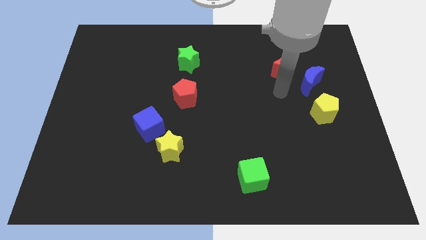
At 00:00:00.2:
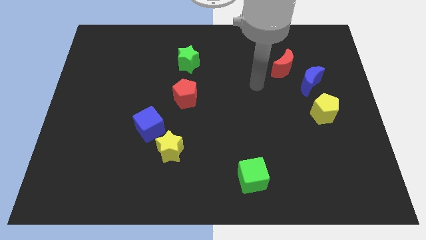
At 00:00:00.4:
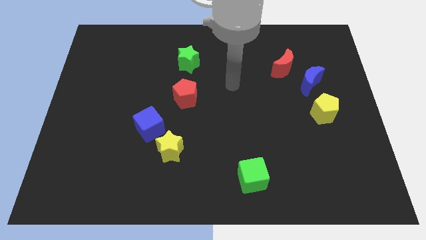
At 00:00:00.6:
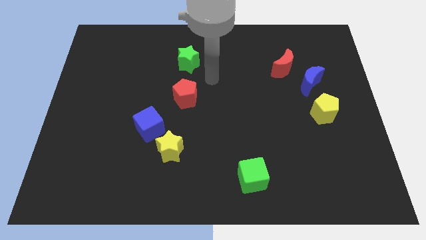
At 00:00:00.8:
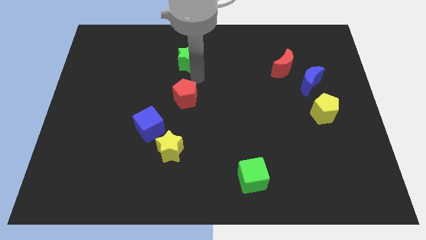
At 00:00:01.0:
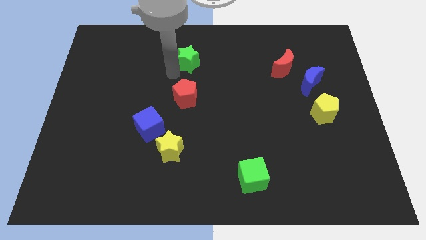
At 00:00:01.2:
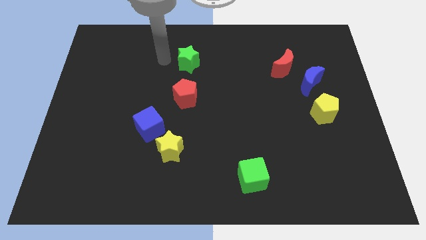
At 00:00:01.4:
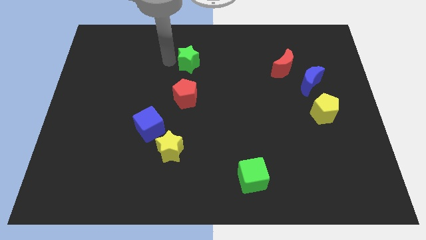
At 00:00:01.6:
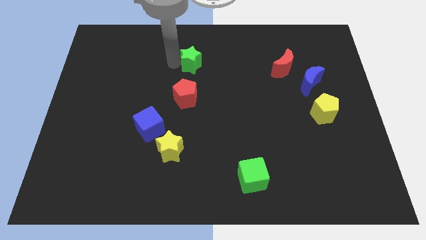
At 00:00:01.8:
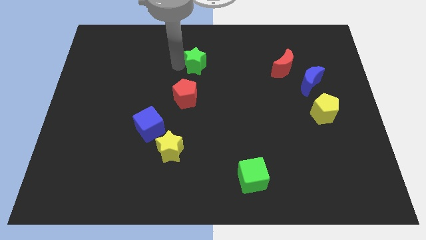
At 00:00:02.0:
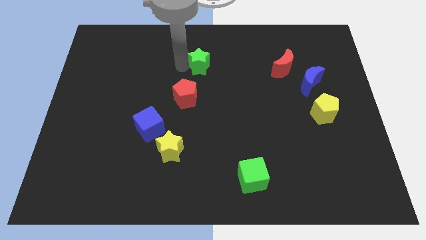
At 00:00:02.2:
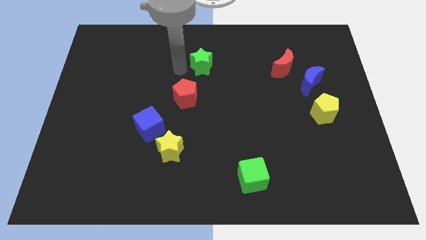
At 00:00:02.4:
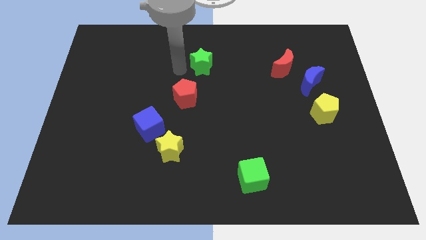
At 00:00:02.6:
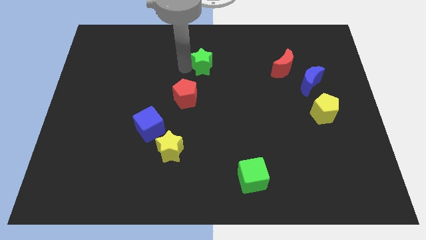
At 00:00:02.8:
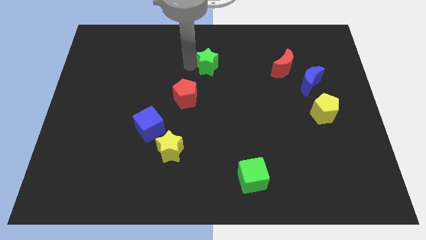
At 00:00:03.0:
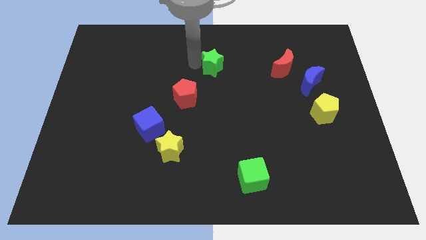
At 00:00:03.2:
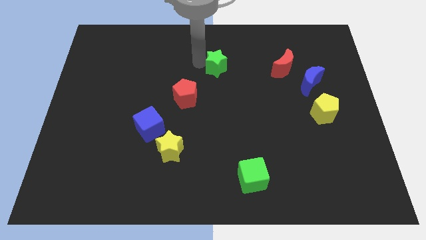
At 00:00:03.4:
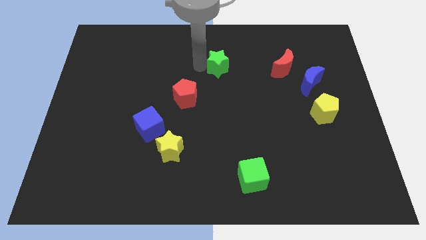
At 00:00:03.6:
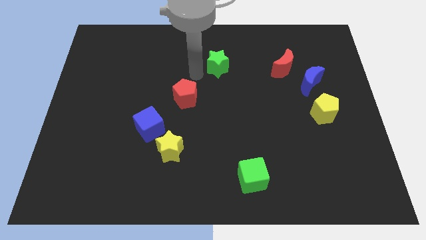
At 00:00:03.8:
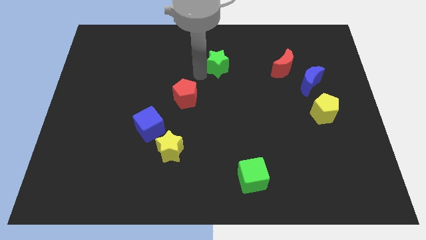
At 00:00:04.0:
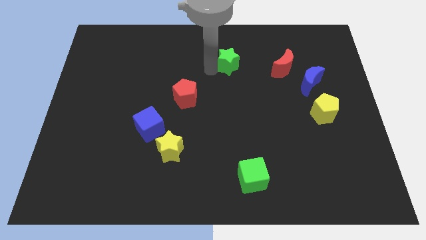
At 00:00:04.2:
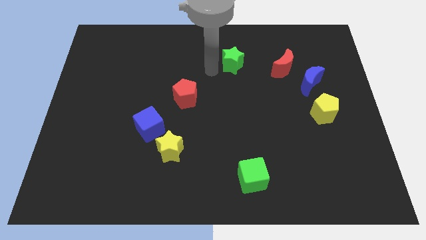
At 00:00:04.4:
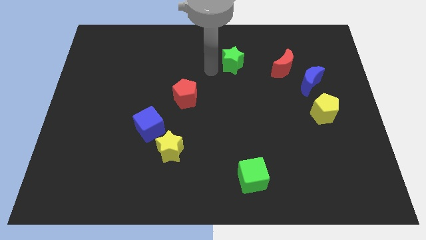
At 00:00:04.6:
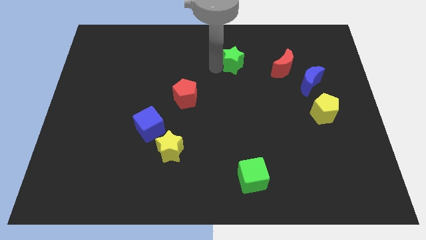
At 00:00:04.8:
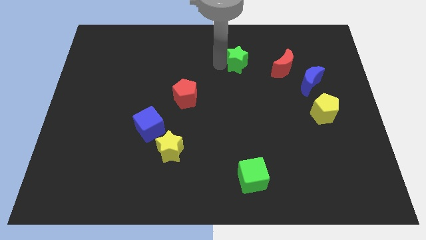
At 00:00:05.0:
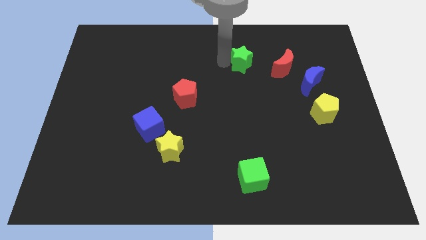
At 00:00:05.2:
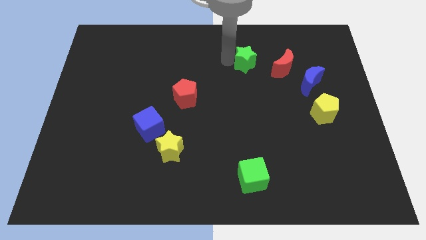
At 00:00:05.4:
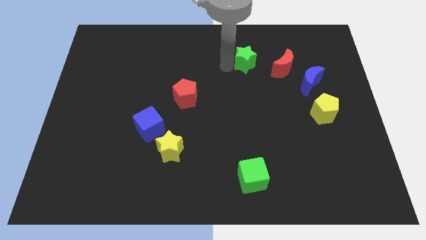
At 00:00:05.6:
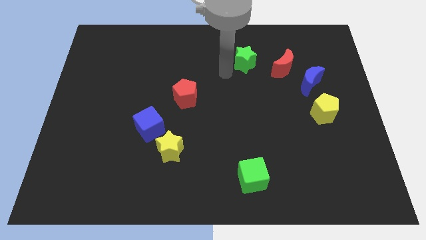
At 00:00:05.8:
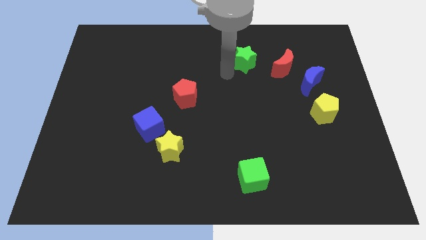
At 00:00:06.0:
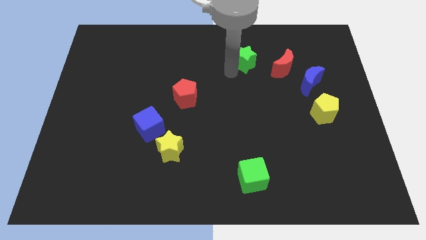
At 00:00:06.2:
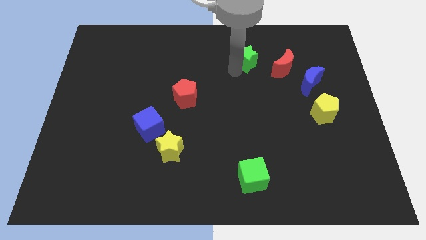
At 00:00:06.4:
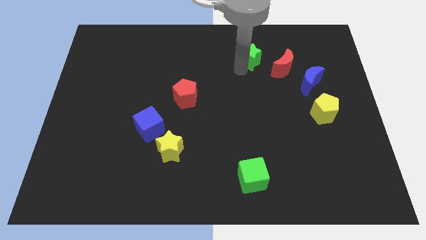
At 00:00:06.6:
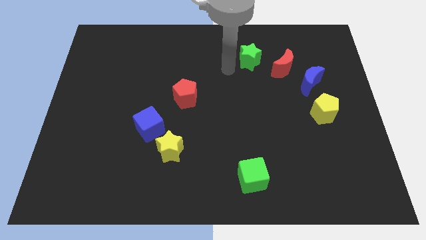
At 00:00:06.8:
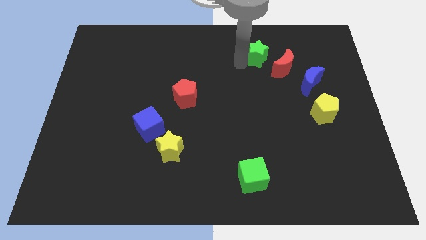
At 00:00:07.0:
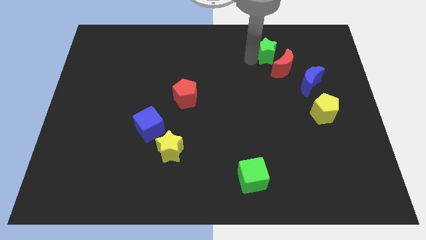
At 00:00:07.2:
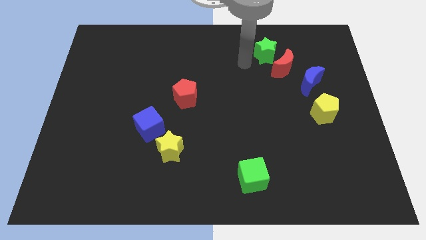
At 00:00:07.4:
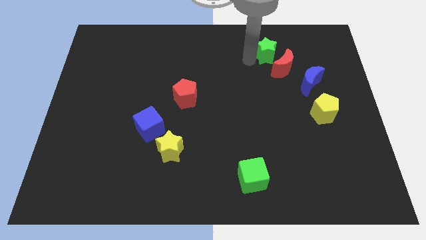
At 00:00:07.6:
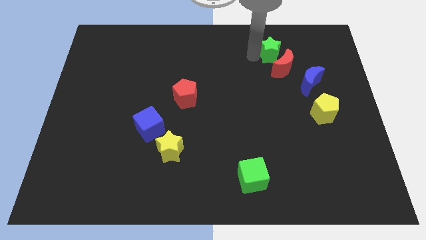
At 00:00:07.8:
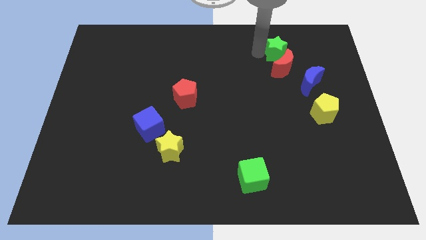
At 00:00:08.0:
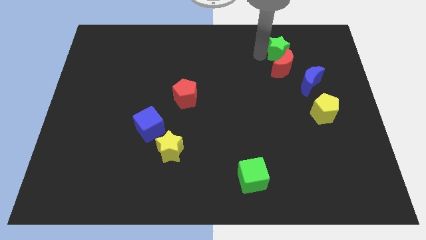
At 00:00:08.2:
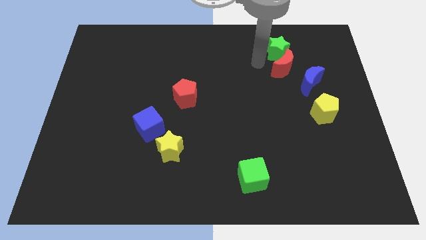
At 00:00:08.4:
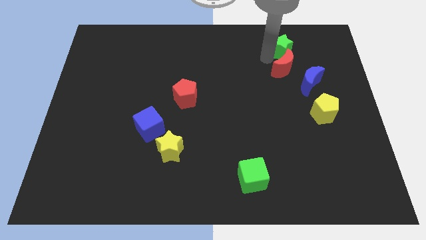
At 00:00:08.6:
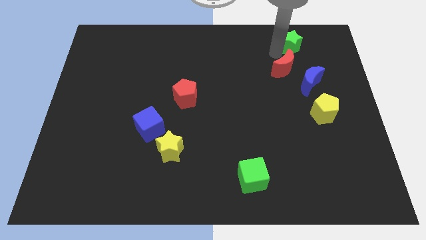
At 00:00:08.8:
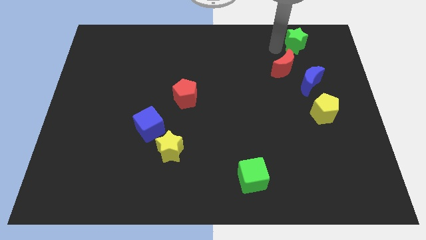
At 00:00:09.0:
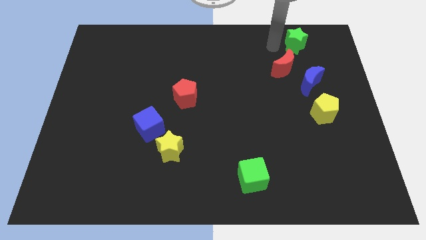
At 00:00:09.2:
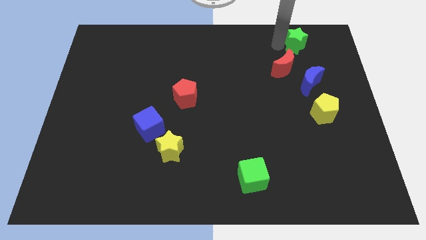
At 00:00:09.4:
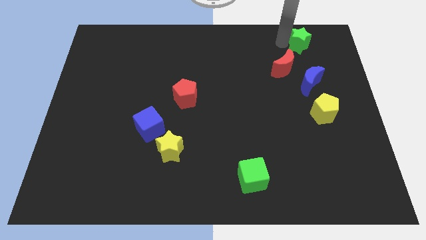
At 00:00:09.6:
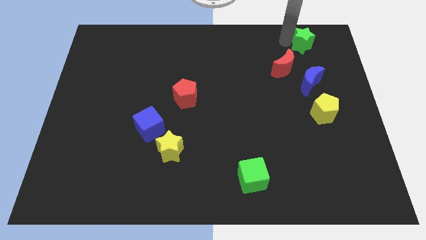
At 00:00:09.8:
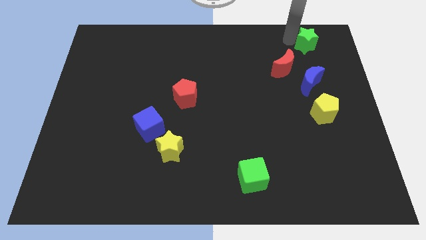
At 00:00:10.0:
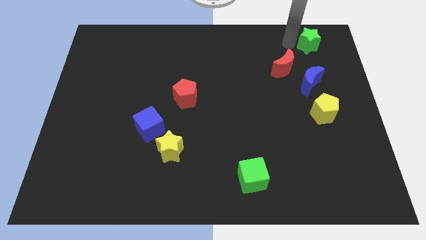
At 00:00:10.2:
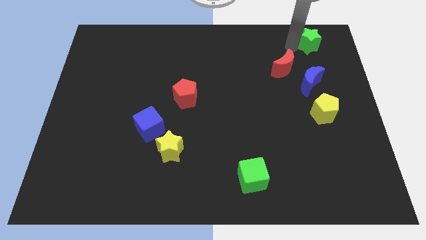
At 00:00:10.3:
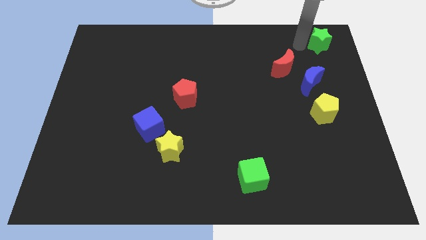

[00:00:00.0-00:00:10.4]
put the green star to the top right

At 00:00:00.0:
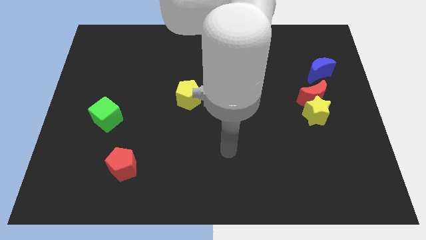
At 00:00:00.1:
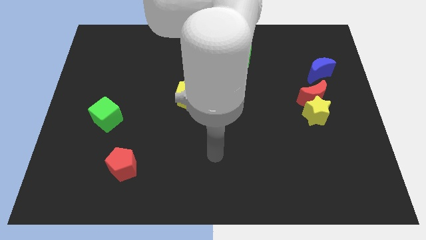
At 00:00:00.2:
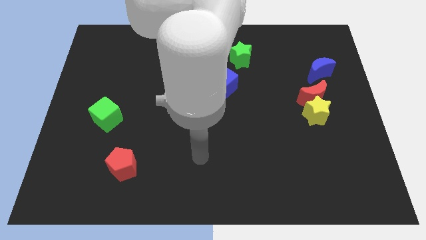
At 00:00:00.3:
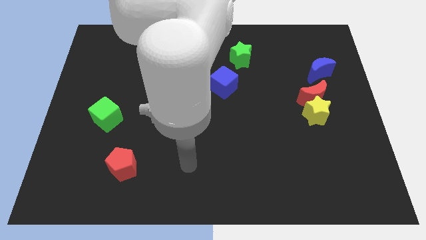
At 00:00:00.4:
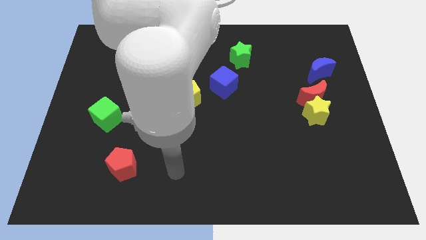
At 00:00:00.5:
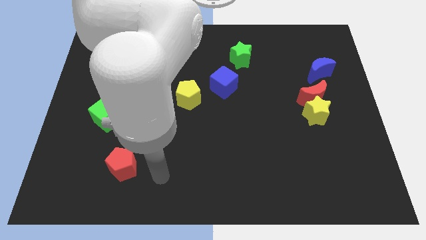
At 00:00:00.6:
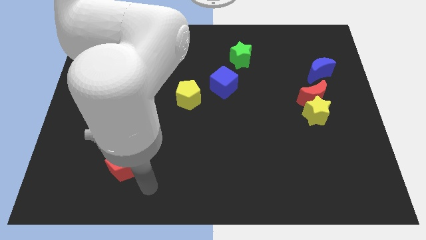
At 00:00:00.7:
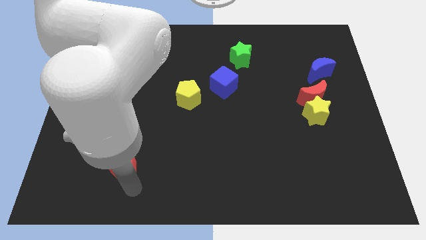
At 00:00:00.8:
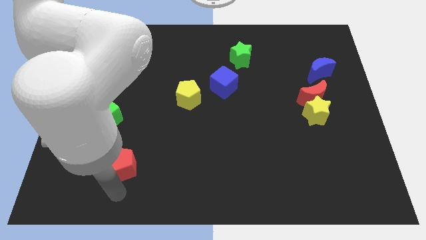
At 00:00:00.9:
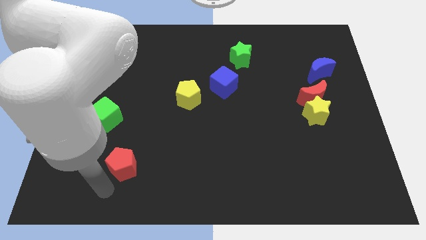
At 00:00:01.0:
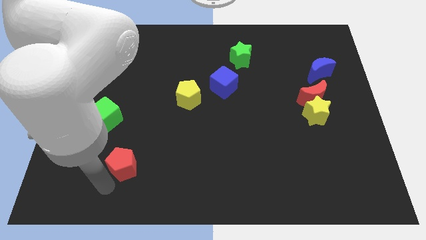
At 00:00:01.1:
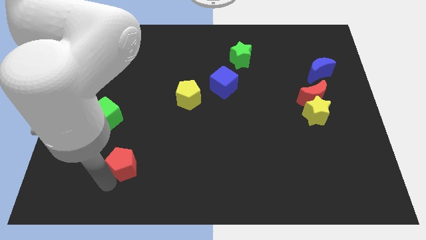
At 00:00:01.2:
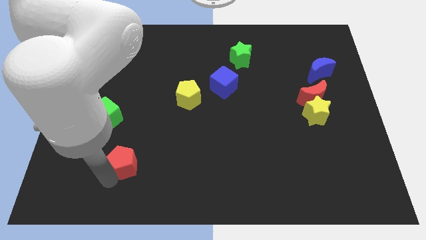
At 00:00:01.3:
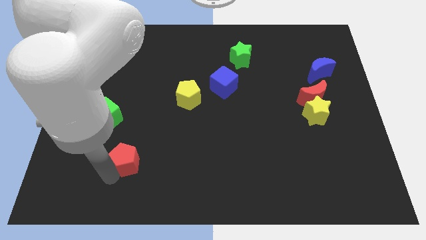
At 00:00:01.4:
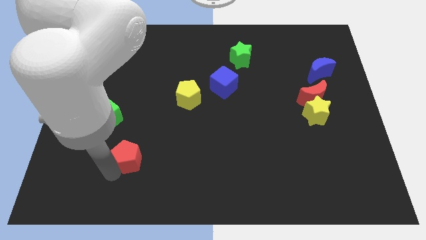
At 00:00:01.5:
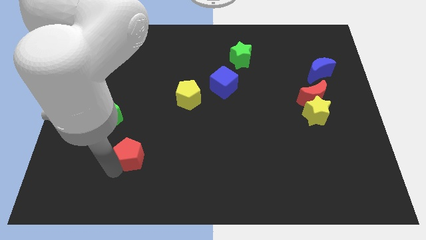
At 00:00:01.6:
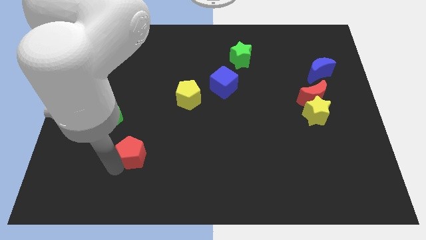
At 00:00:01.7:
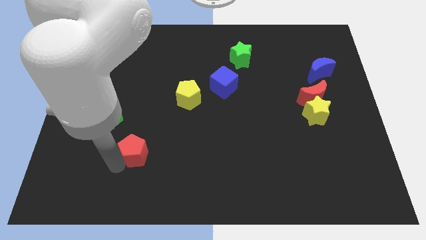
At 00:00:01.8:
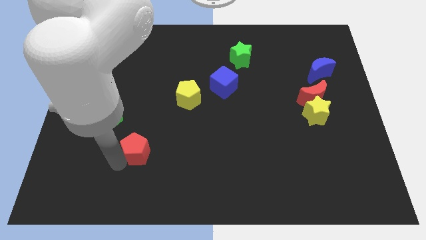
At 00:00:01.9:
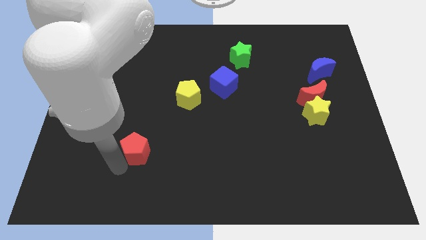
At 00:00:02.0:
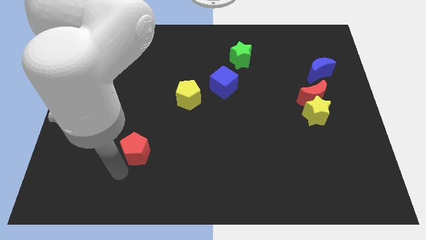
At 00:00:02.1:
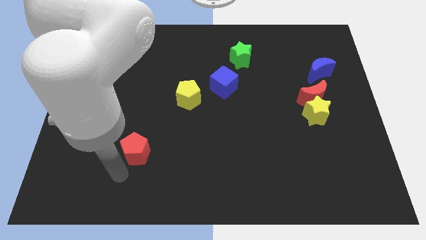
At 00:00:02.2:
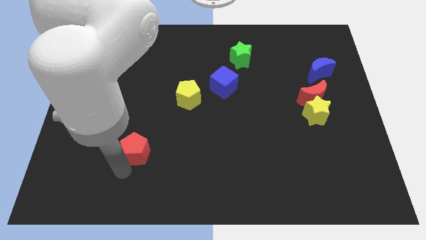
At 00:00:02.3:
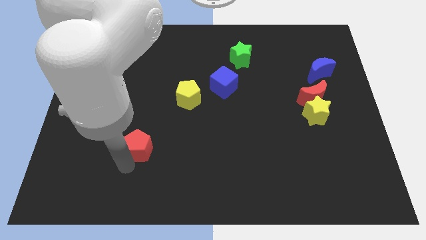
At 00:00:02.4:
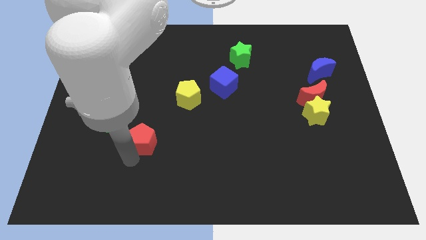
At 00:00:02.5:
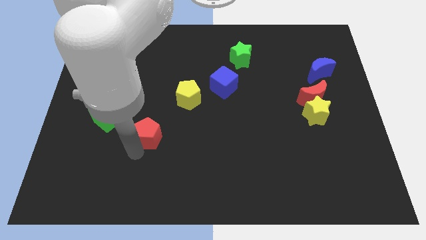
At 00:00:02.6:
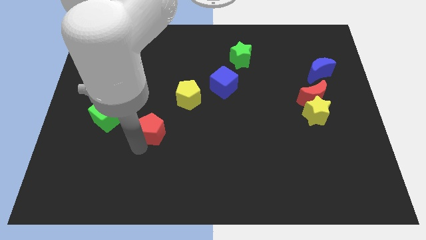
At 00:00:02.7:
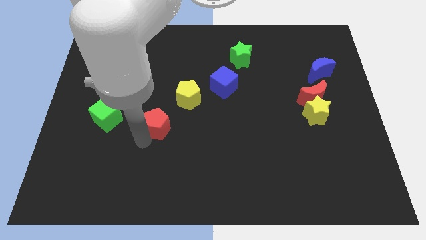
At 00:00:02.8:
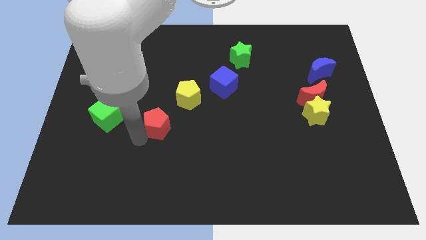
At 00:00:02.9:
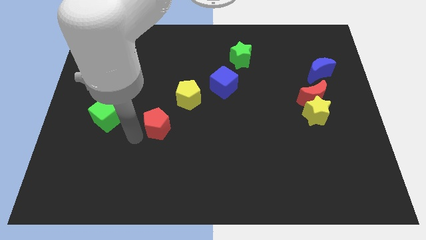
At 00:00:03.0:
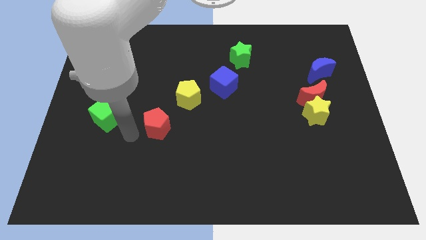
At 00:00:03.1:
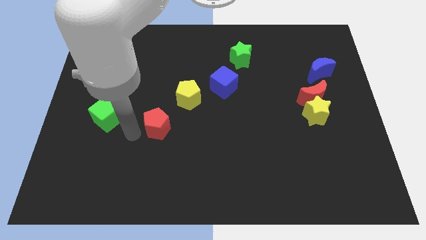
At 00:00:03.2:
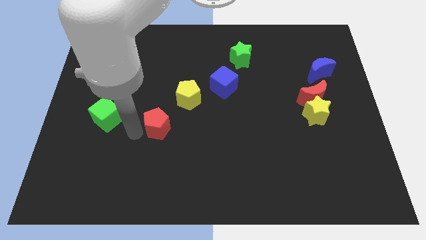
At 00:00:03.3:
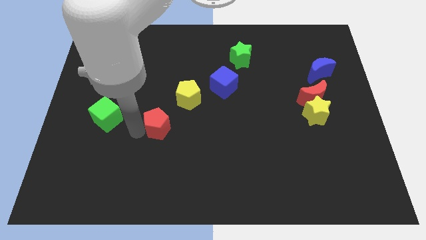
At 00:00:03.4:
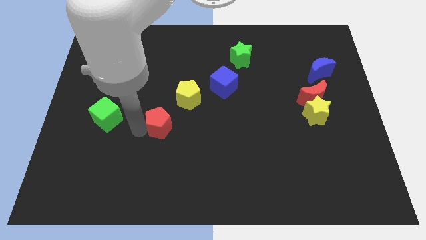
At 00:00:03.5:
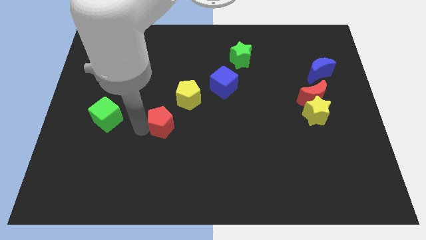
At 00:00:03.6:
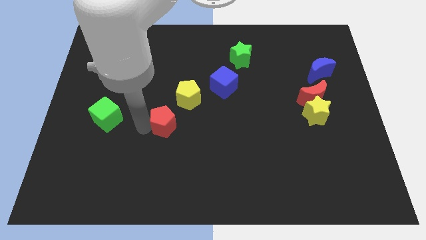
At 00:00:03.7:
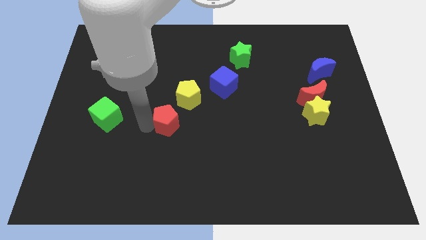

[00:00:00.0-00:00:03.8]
push the red pentagon to the middle of the board
